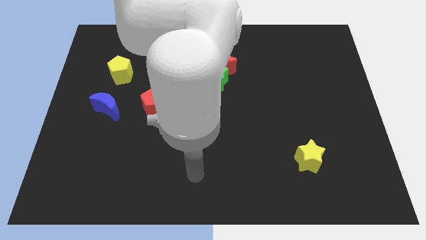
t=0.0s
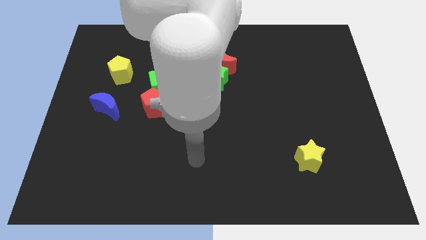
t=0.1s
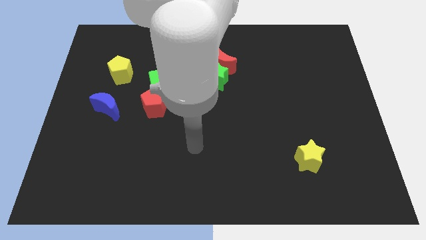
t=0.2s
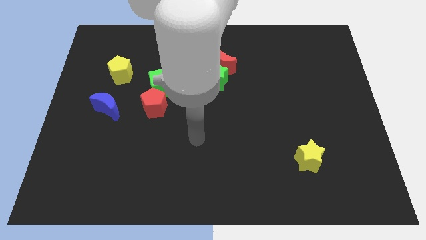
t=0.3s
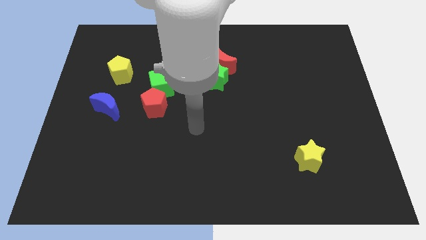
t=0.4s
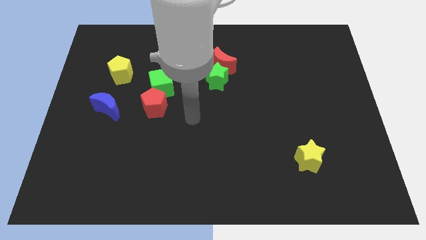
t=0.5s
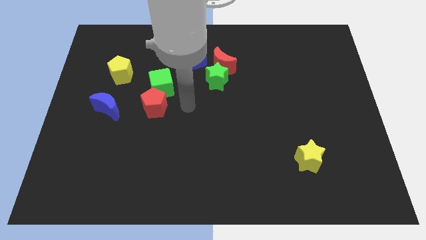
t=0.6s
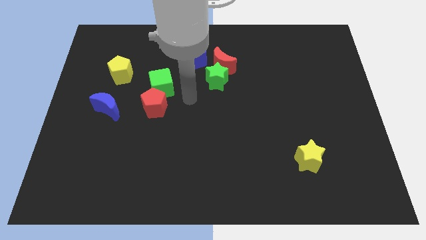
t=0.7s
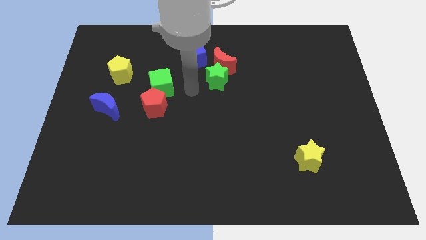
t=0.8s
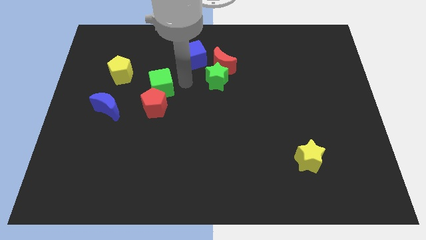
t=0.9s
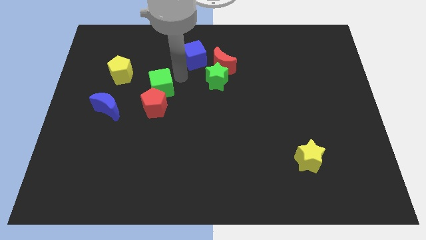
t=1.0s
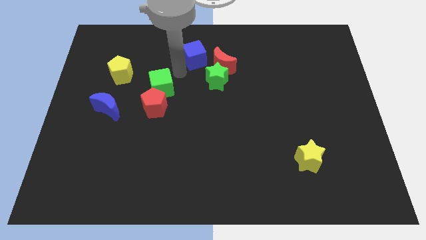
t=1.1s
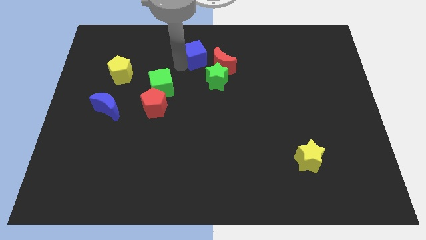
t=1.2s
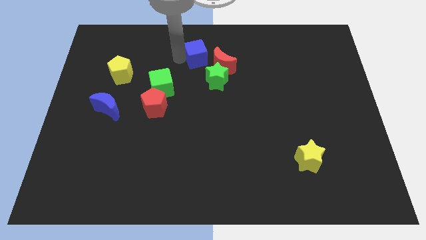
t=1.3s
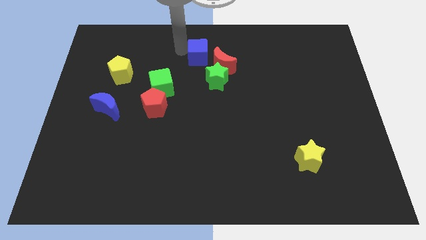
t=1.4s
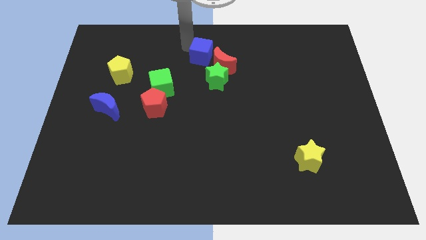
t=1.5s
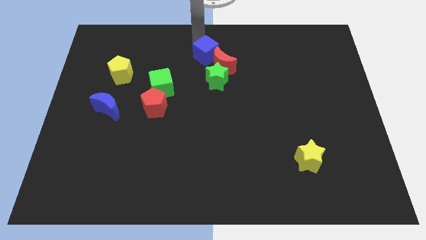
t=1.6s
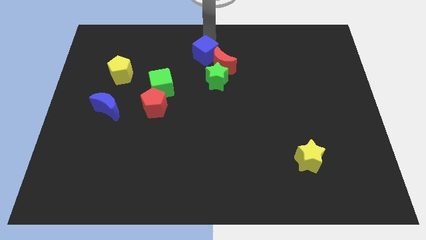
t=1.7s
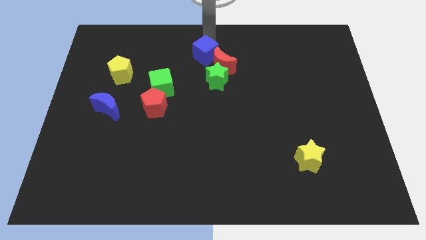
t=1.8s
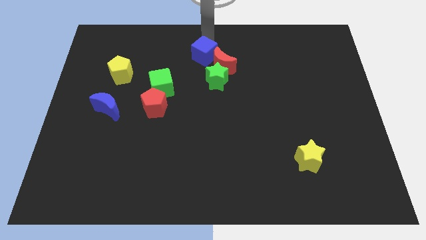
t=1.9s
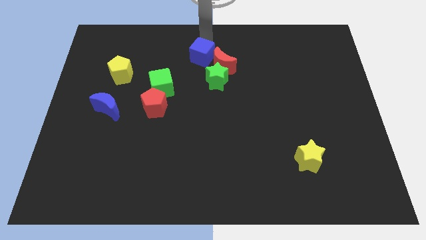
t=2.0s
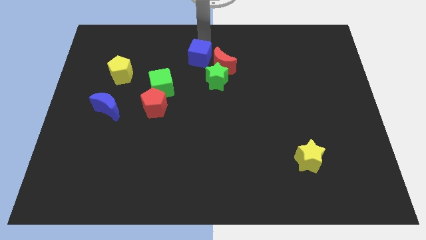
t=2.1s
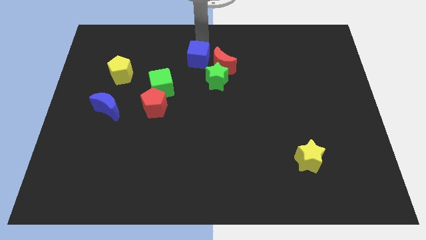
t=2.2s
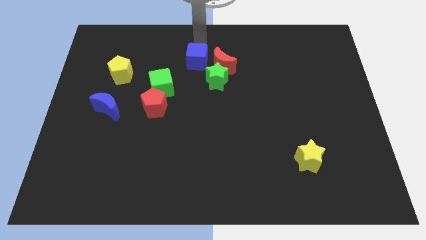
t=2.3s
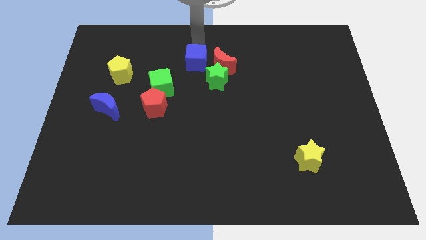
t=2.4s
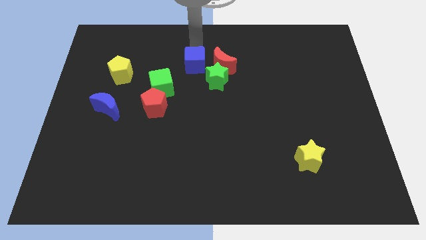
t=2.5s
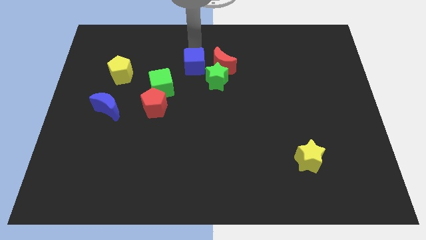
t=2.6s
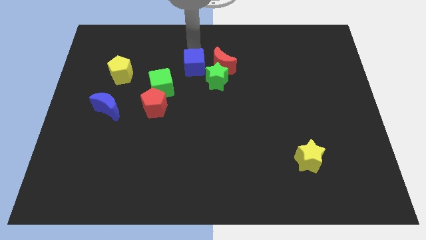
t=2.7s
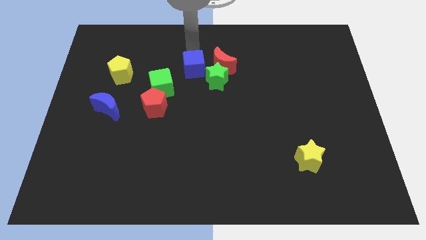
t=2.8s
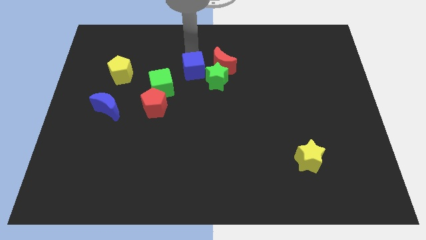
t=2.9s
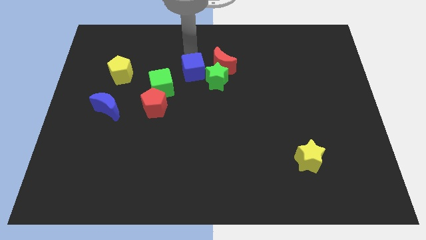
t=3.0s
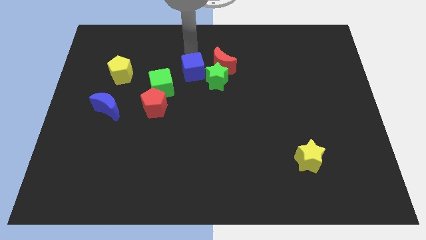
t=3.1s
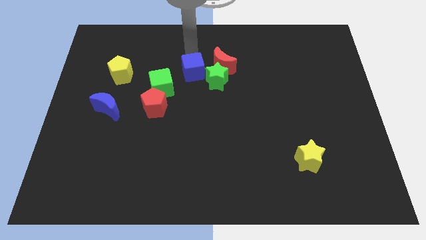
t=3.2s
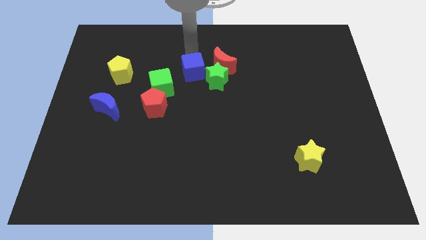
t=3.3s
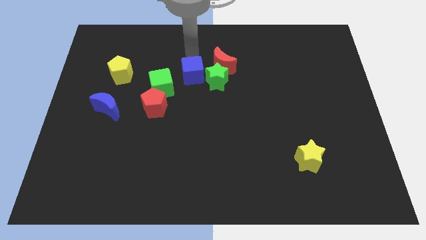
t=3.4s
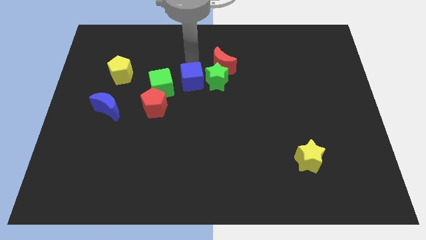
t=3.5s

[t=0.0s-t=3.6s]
push the blue cube downwards slightly

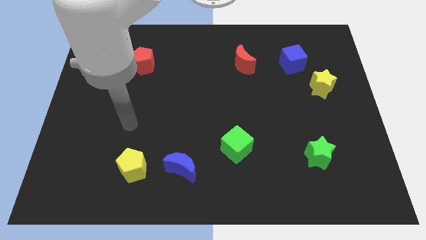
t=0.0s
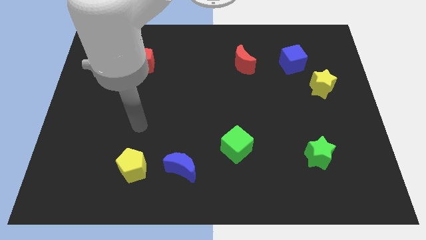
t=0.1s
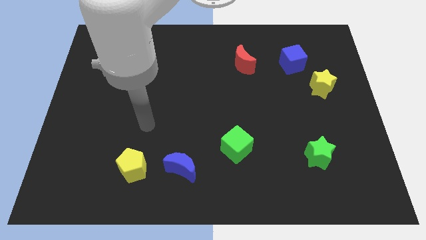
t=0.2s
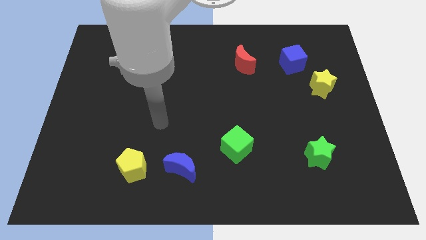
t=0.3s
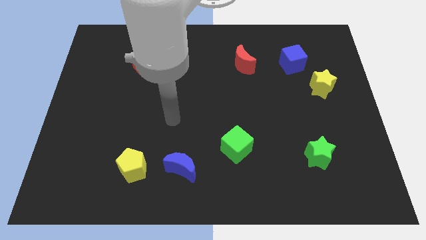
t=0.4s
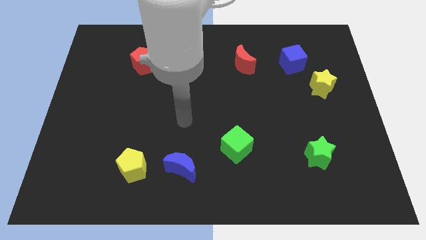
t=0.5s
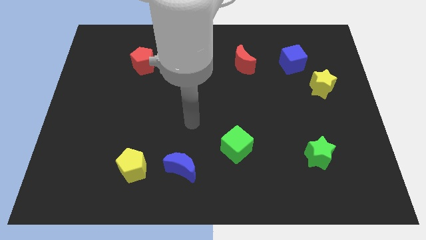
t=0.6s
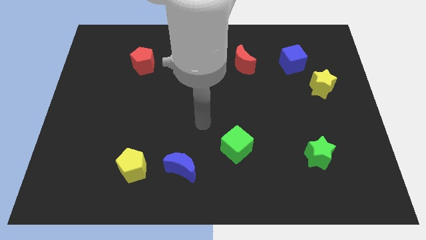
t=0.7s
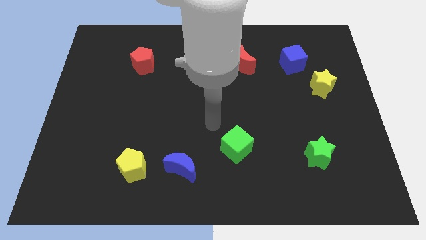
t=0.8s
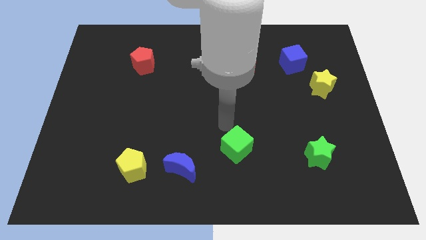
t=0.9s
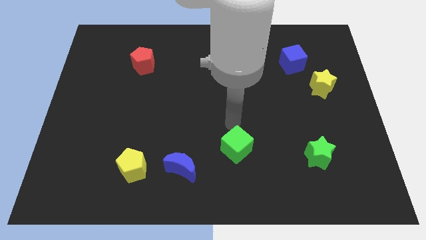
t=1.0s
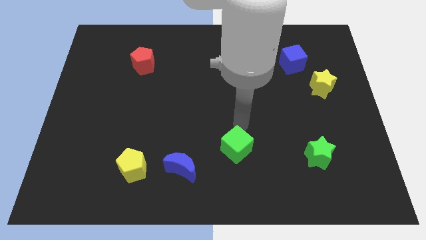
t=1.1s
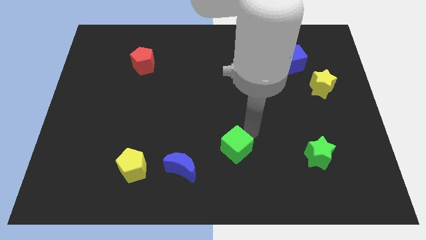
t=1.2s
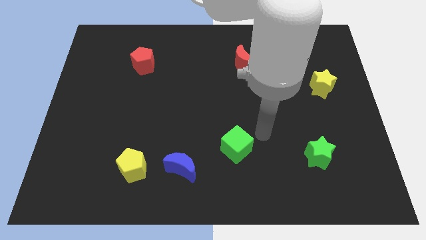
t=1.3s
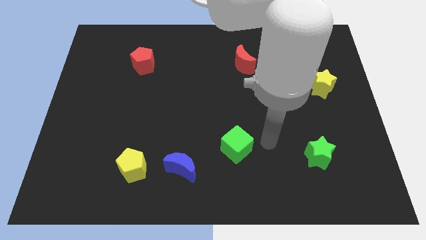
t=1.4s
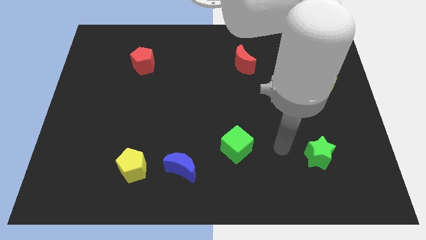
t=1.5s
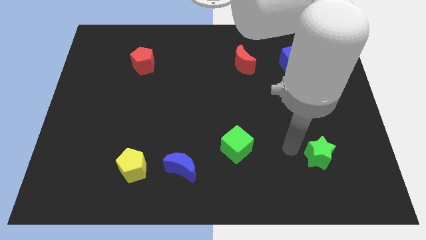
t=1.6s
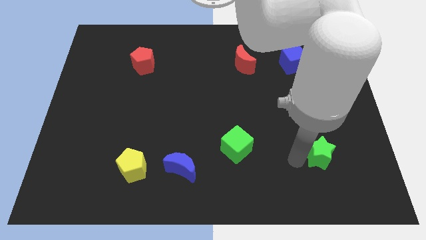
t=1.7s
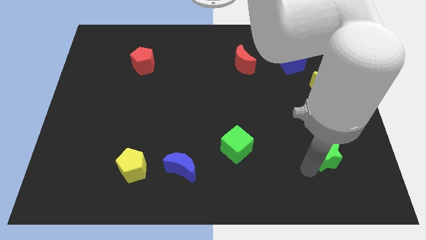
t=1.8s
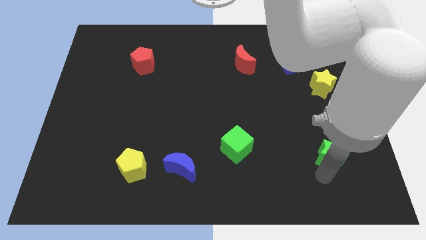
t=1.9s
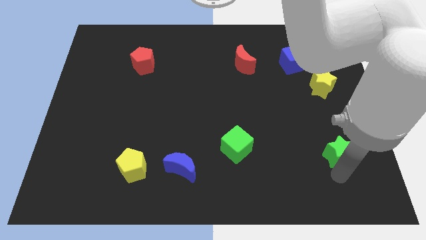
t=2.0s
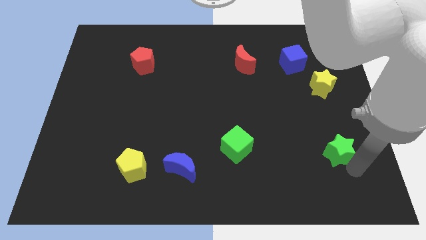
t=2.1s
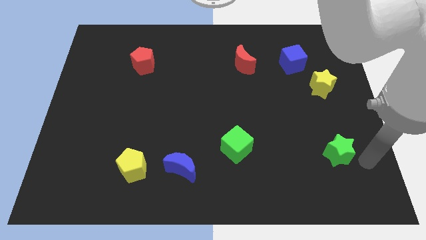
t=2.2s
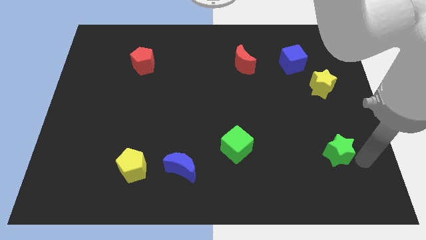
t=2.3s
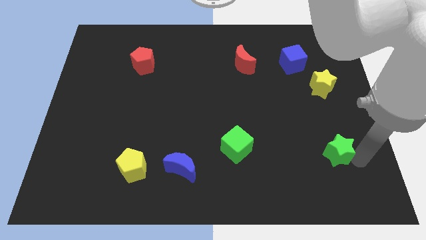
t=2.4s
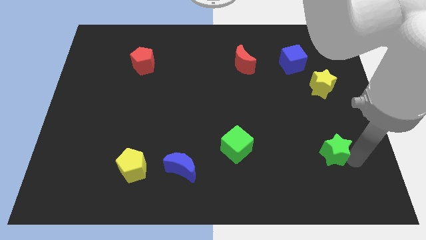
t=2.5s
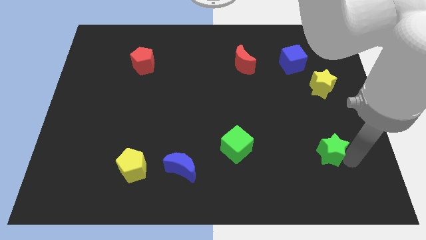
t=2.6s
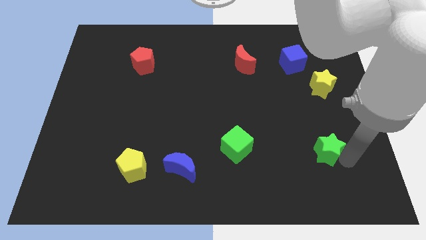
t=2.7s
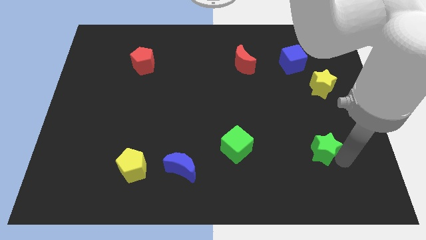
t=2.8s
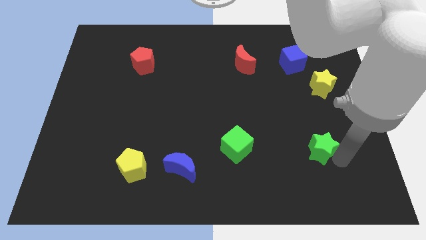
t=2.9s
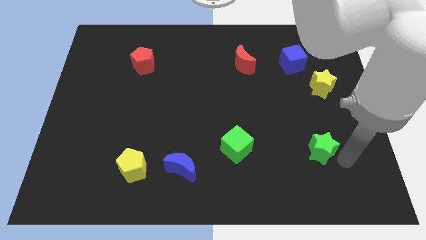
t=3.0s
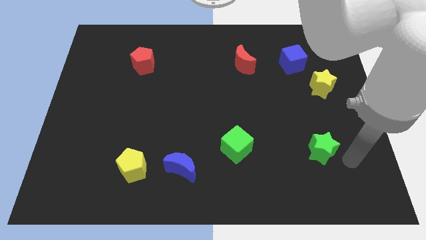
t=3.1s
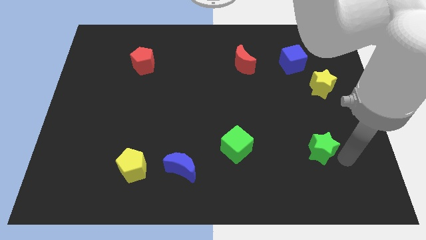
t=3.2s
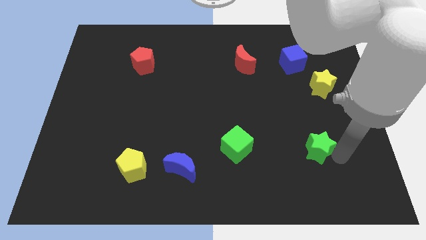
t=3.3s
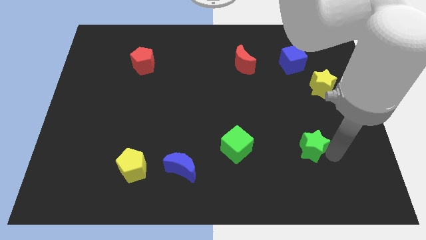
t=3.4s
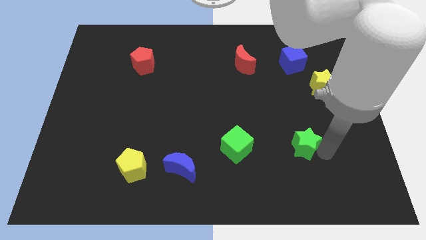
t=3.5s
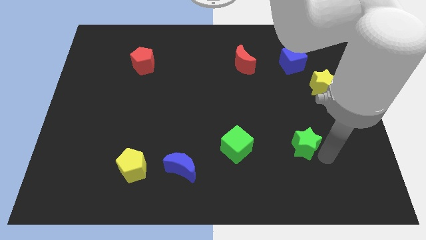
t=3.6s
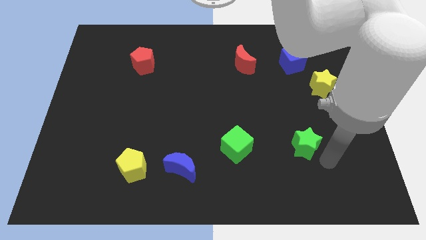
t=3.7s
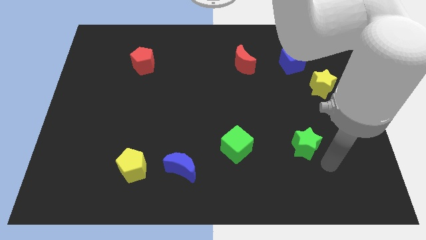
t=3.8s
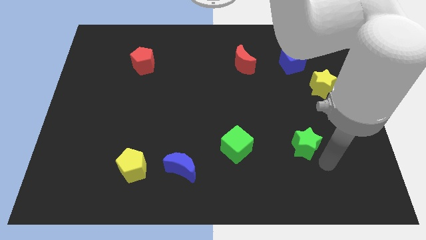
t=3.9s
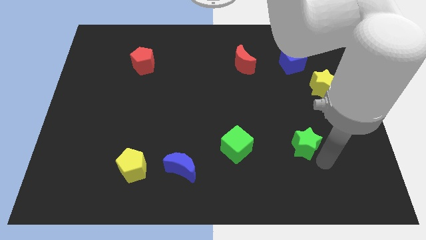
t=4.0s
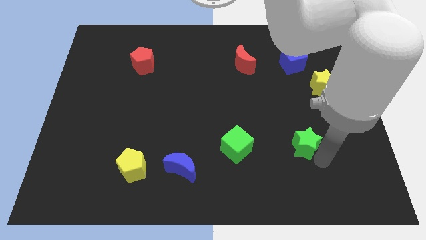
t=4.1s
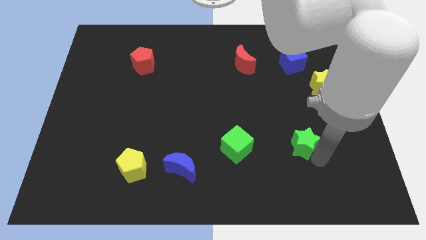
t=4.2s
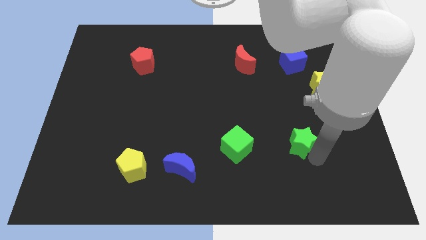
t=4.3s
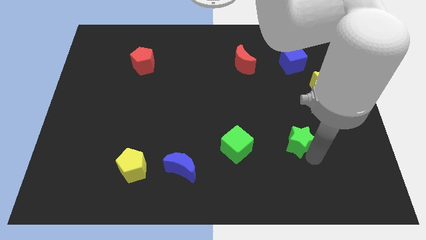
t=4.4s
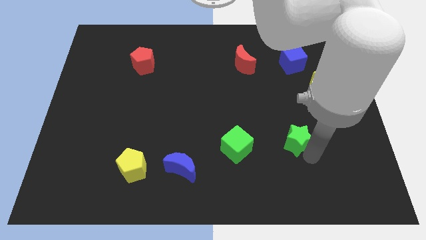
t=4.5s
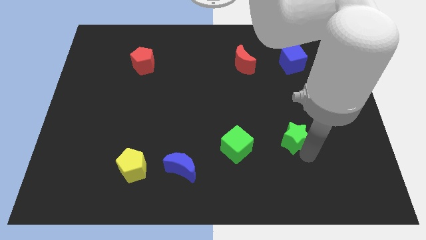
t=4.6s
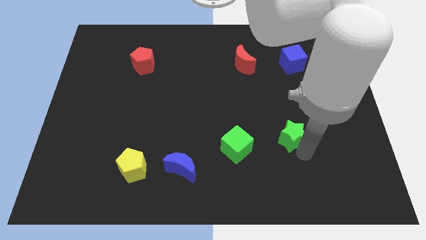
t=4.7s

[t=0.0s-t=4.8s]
slightly push the green star diagonally up and to the left
